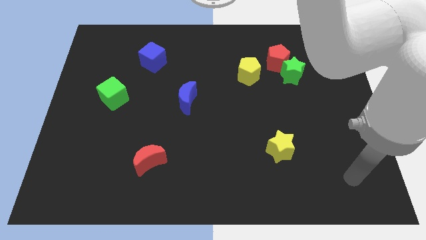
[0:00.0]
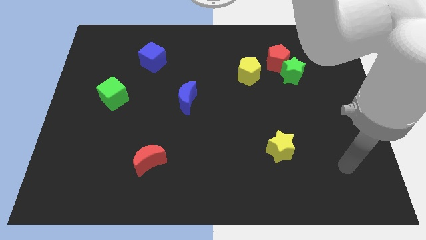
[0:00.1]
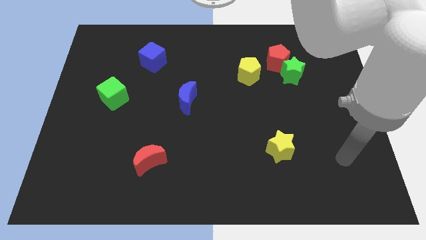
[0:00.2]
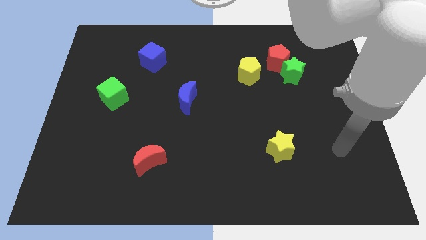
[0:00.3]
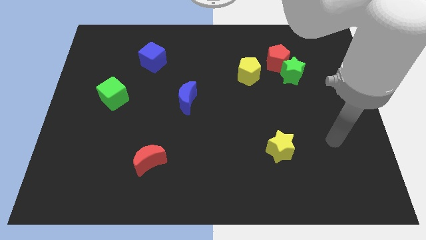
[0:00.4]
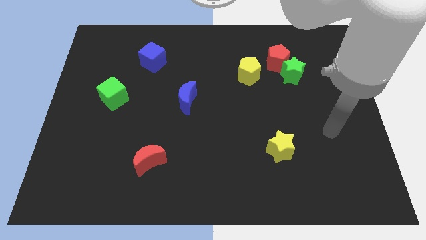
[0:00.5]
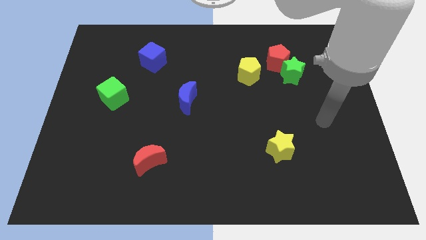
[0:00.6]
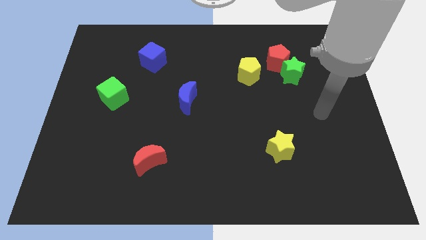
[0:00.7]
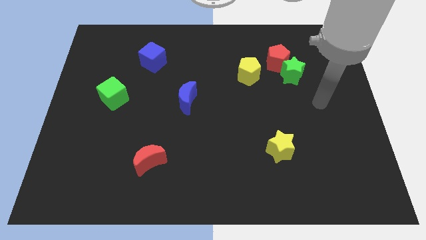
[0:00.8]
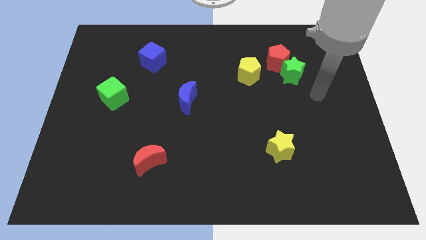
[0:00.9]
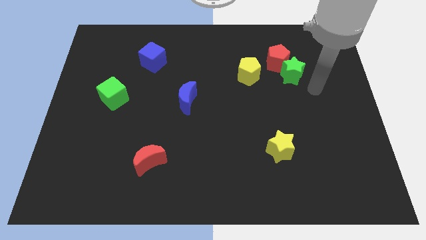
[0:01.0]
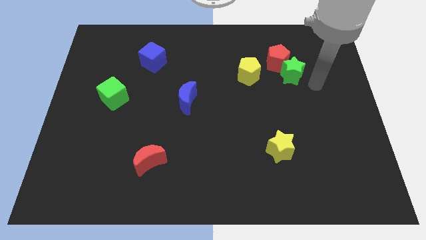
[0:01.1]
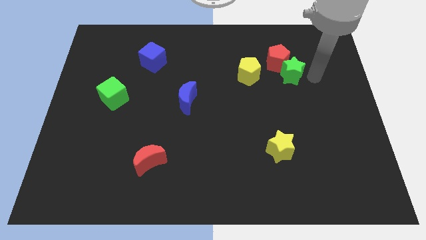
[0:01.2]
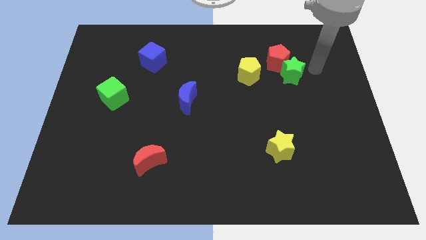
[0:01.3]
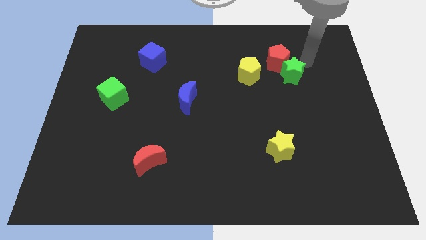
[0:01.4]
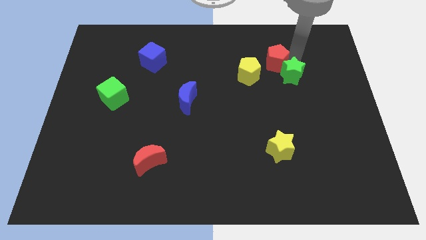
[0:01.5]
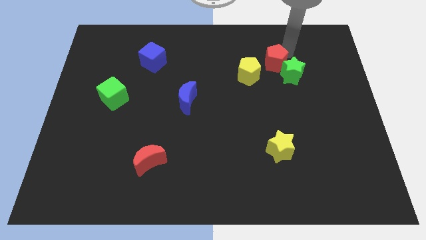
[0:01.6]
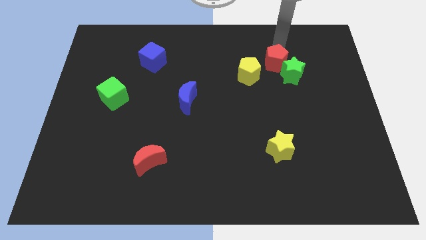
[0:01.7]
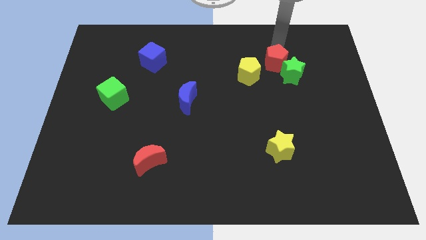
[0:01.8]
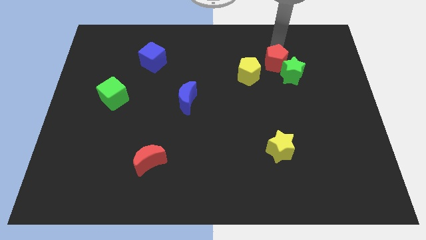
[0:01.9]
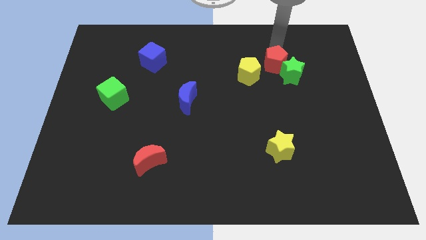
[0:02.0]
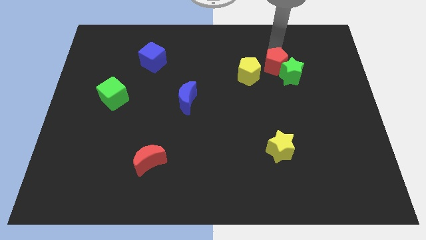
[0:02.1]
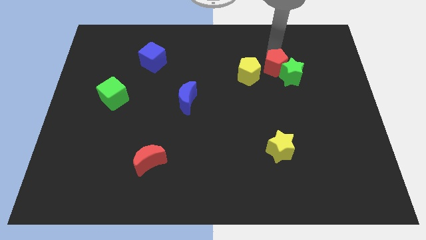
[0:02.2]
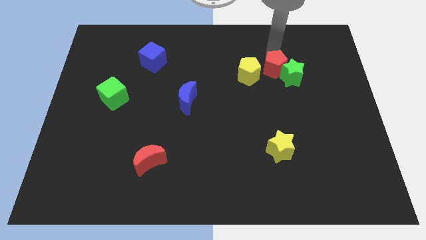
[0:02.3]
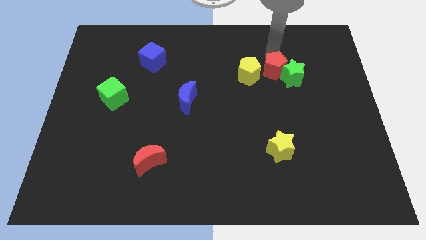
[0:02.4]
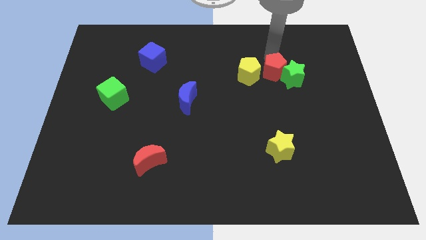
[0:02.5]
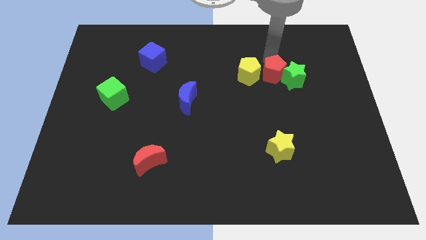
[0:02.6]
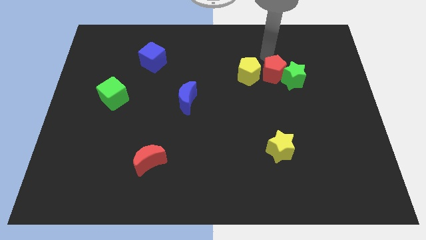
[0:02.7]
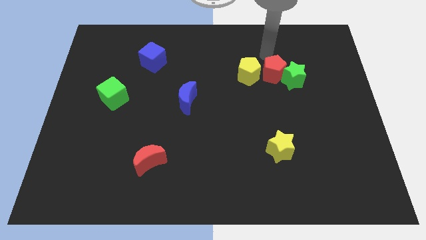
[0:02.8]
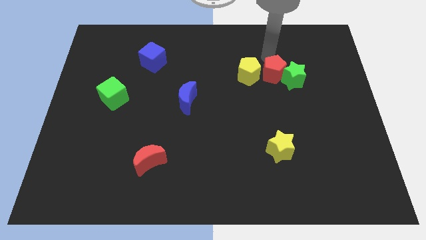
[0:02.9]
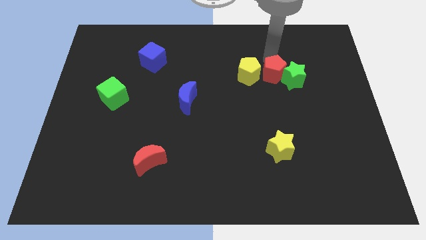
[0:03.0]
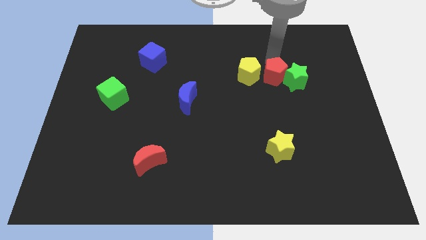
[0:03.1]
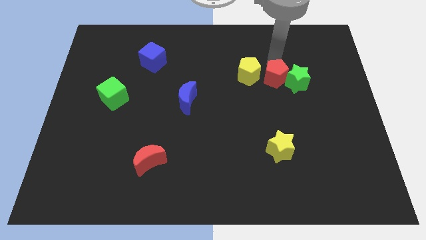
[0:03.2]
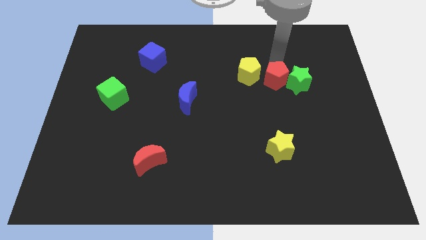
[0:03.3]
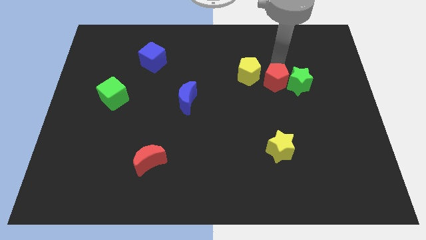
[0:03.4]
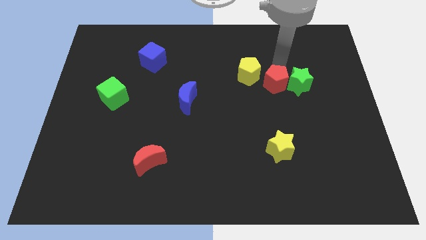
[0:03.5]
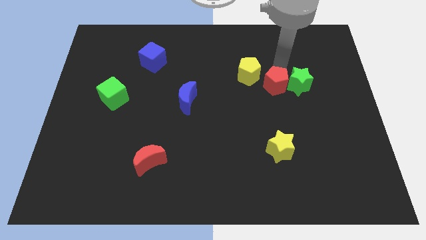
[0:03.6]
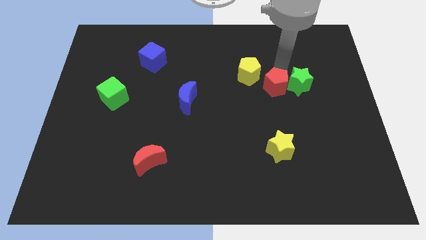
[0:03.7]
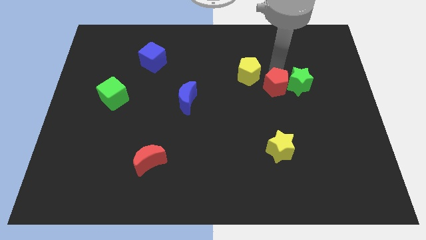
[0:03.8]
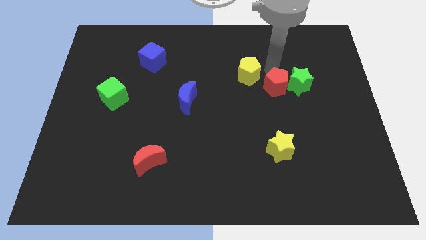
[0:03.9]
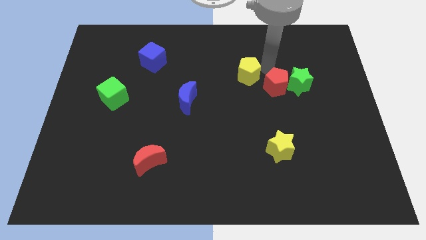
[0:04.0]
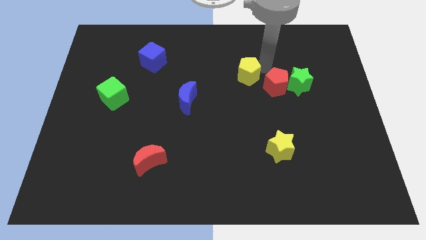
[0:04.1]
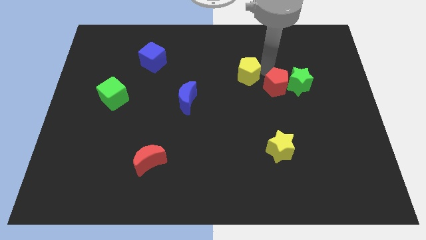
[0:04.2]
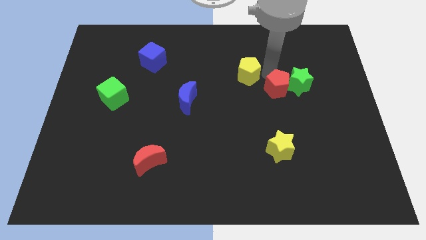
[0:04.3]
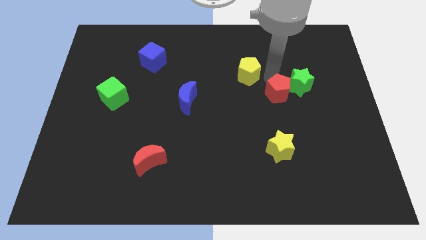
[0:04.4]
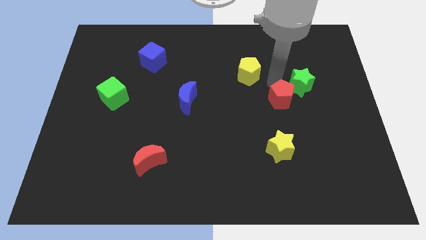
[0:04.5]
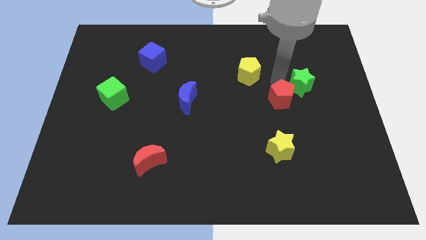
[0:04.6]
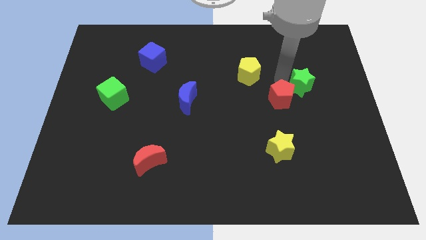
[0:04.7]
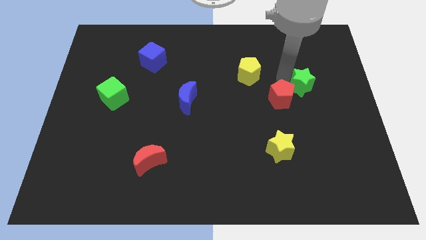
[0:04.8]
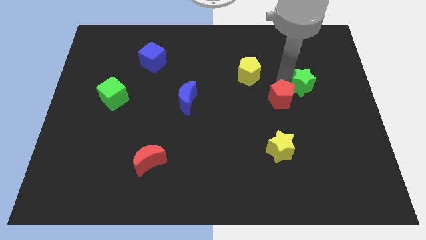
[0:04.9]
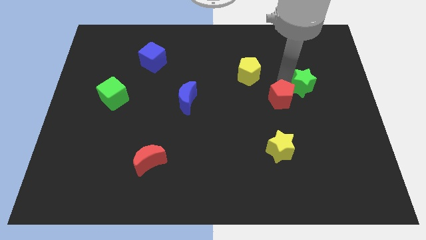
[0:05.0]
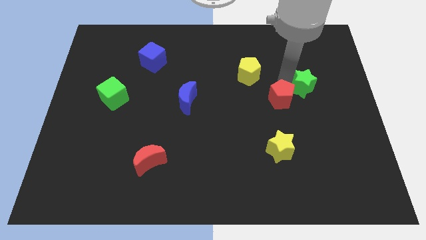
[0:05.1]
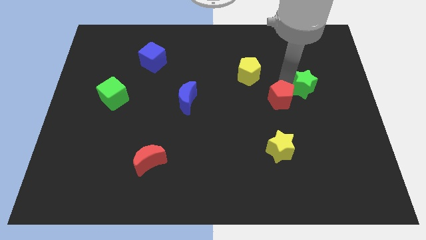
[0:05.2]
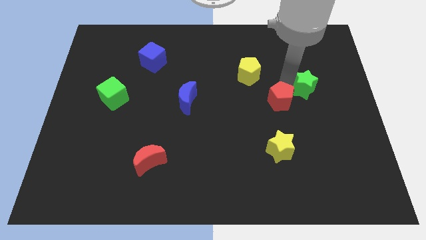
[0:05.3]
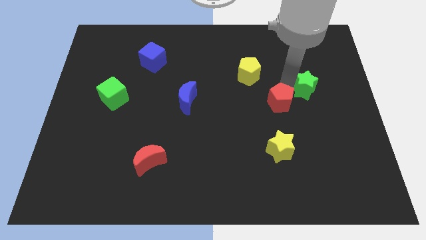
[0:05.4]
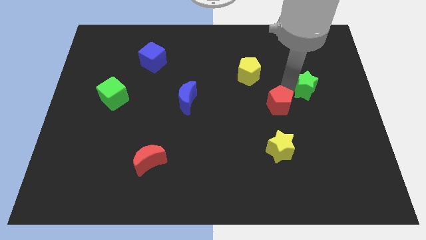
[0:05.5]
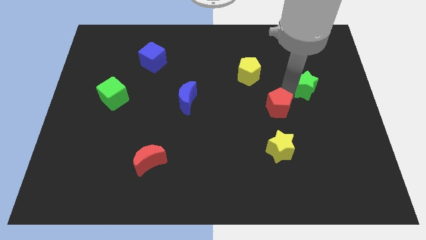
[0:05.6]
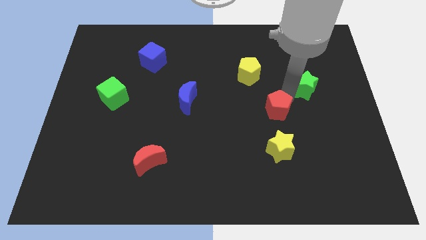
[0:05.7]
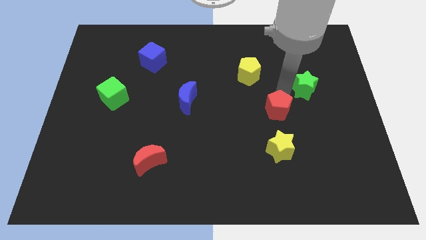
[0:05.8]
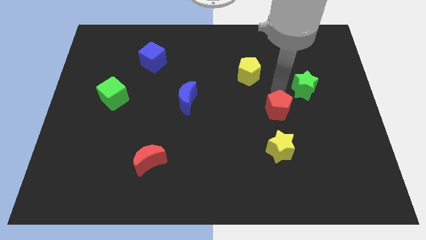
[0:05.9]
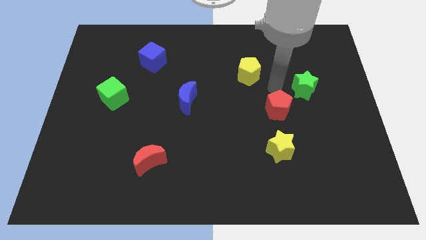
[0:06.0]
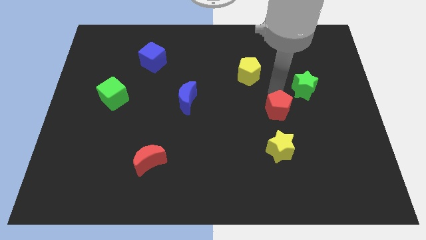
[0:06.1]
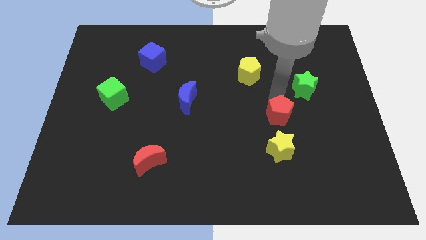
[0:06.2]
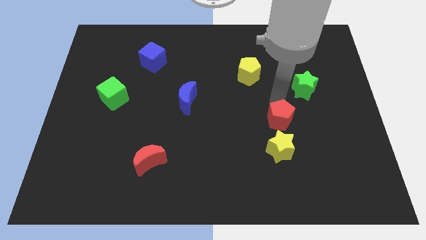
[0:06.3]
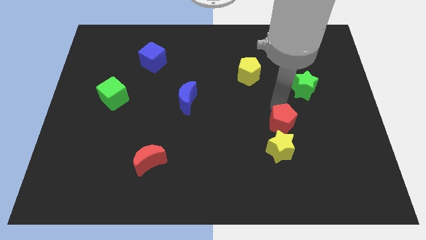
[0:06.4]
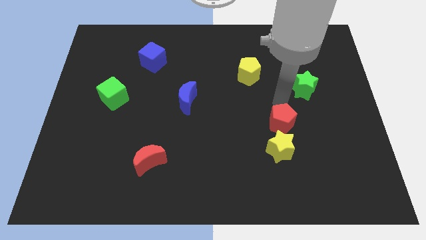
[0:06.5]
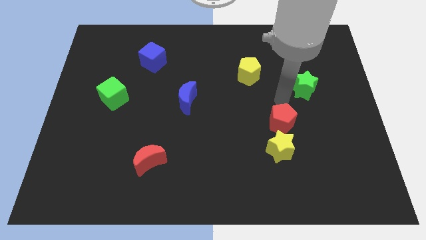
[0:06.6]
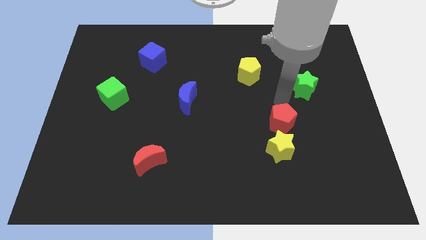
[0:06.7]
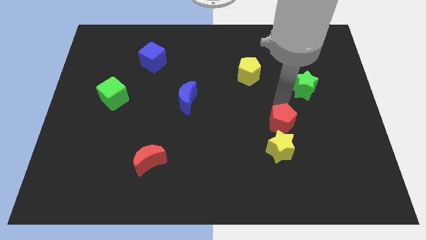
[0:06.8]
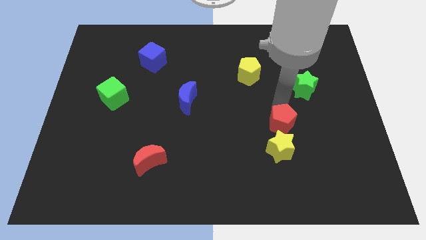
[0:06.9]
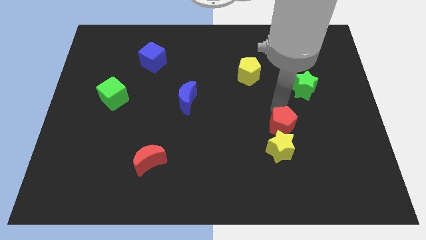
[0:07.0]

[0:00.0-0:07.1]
move the red pentagon next to the yellow star
